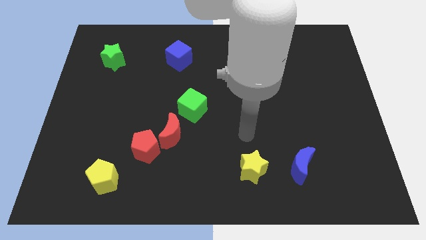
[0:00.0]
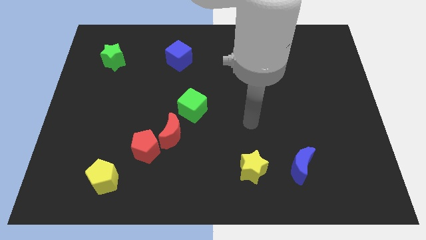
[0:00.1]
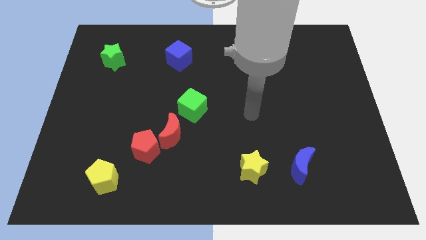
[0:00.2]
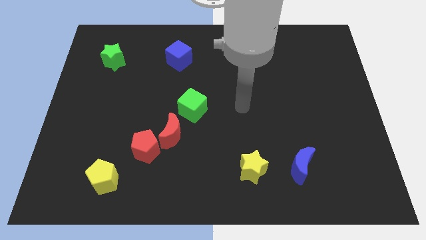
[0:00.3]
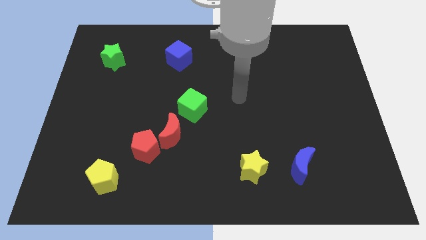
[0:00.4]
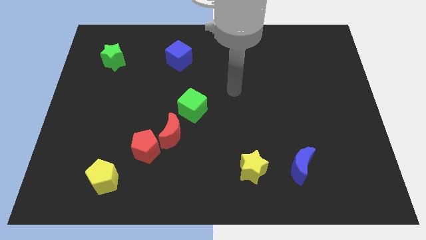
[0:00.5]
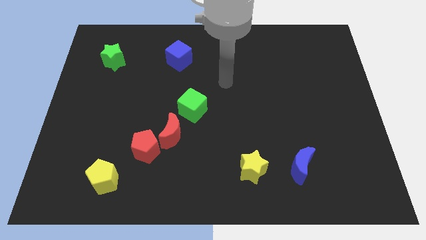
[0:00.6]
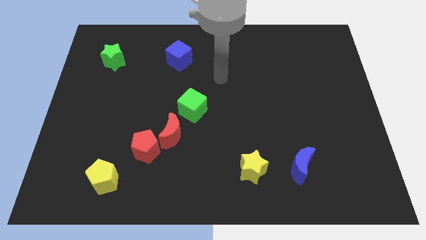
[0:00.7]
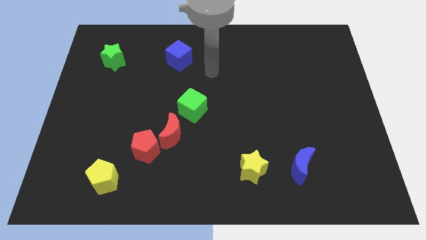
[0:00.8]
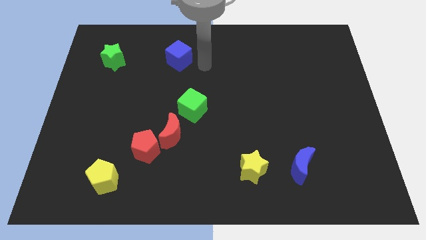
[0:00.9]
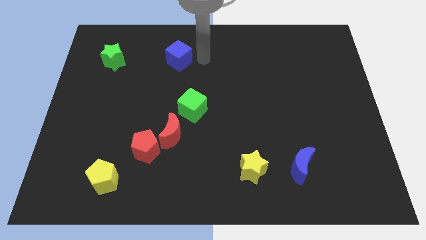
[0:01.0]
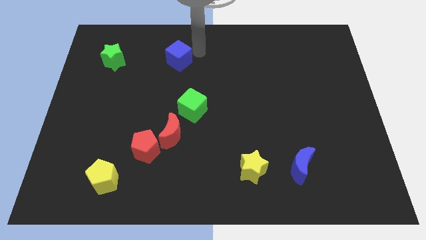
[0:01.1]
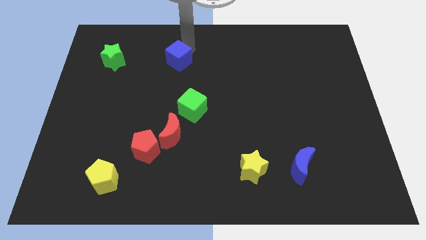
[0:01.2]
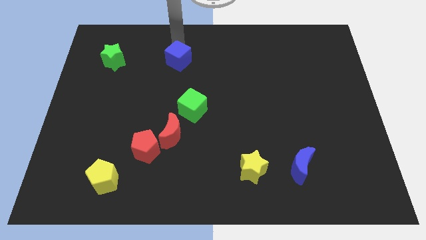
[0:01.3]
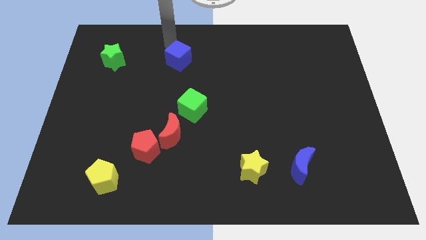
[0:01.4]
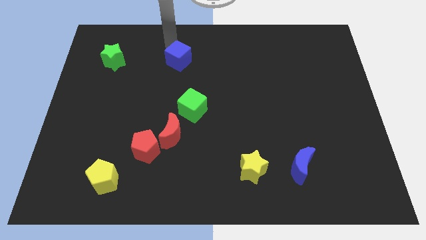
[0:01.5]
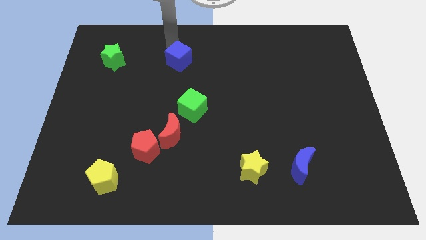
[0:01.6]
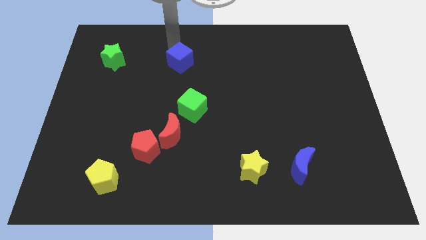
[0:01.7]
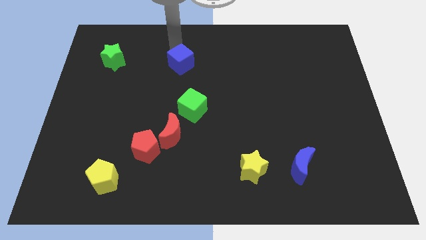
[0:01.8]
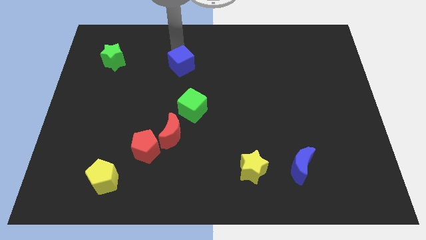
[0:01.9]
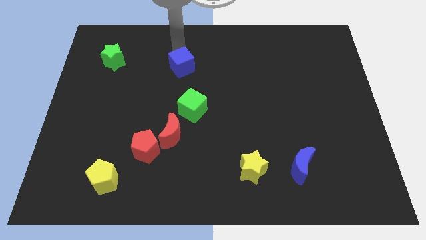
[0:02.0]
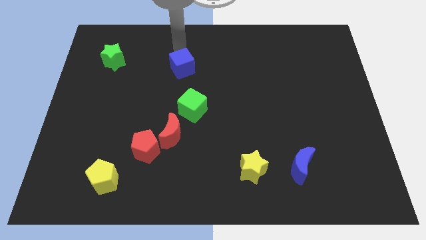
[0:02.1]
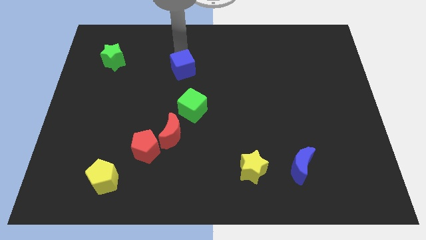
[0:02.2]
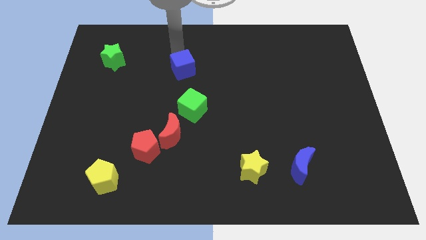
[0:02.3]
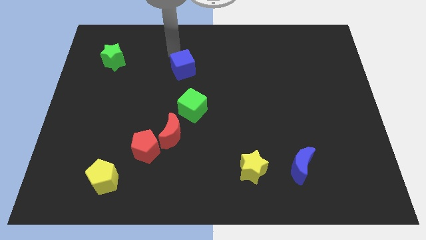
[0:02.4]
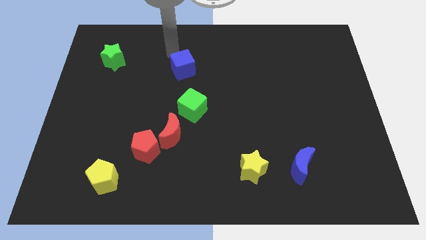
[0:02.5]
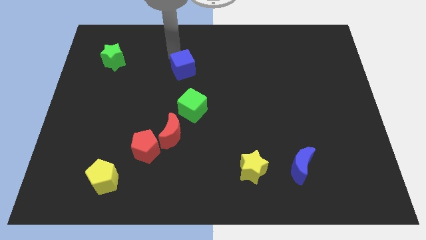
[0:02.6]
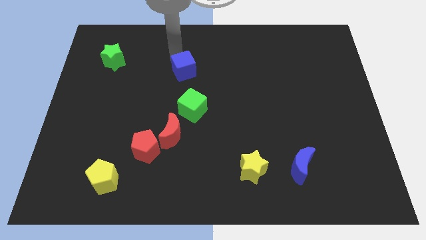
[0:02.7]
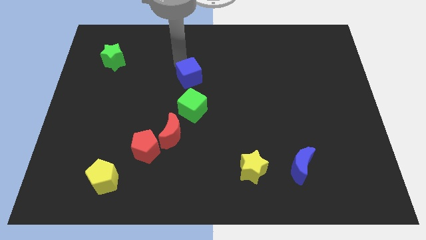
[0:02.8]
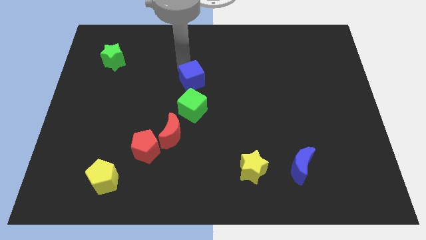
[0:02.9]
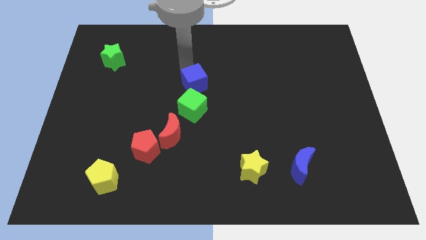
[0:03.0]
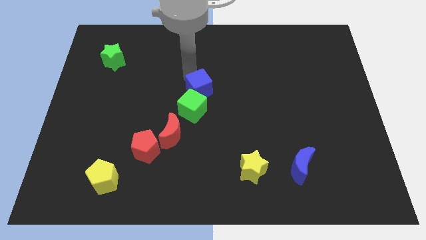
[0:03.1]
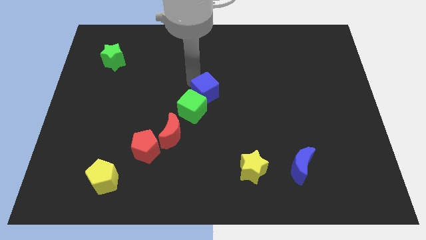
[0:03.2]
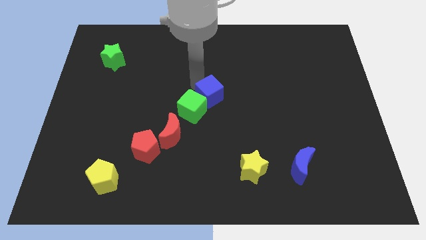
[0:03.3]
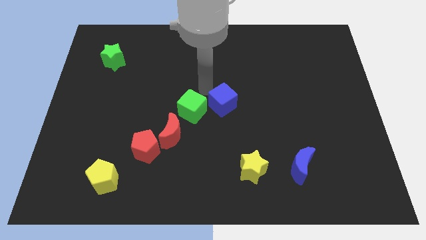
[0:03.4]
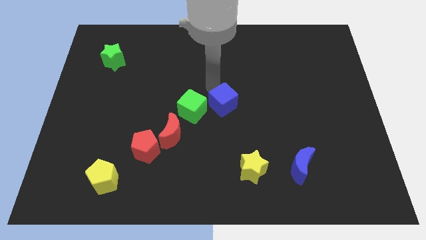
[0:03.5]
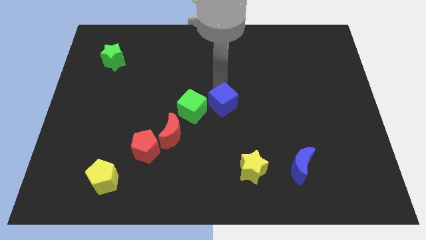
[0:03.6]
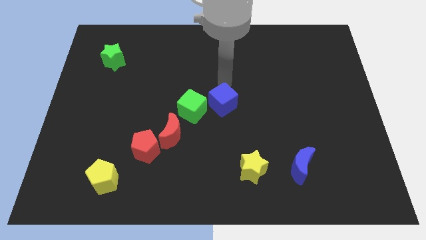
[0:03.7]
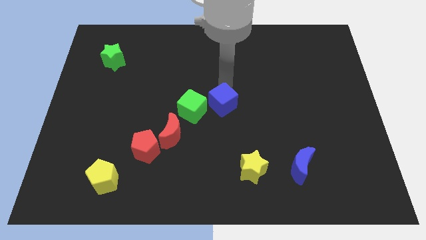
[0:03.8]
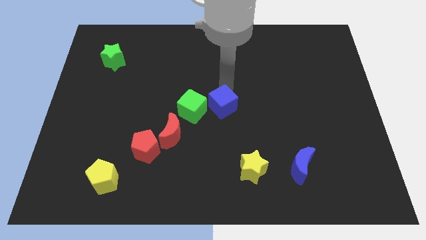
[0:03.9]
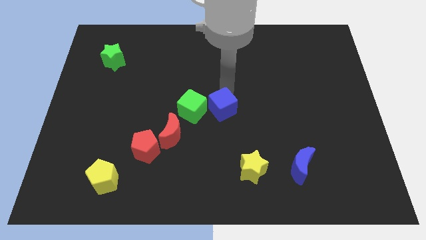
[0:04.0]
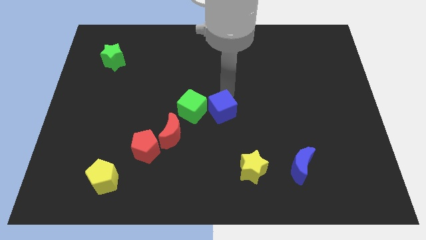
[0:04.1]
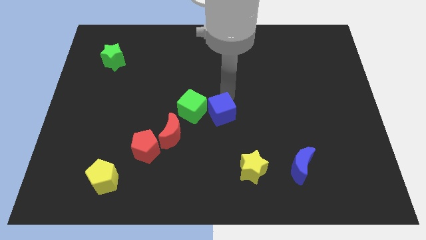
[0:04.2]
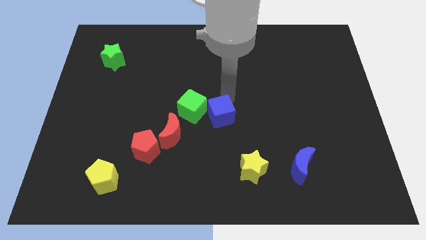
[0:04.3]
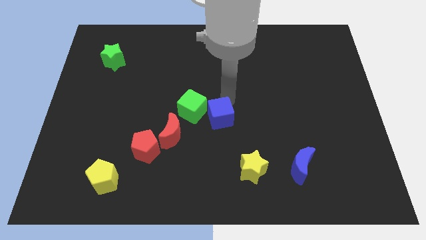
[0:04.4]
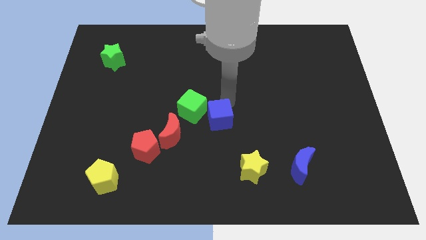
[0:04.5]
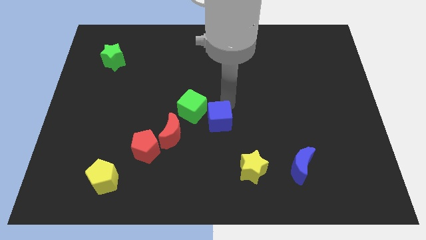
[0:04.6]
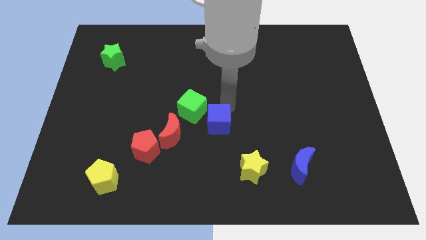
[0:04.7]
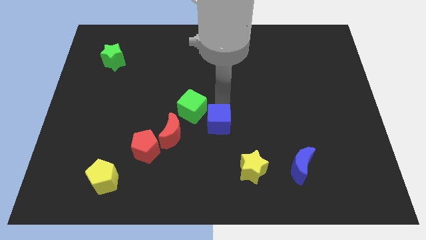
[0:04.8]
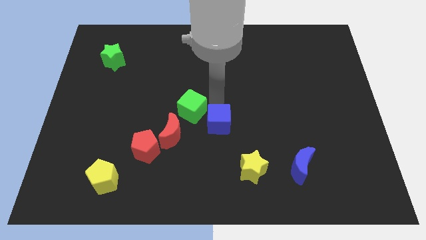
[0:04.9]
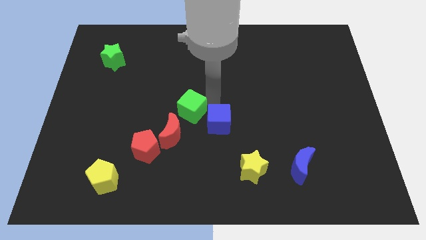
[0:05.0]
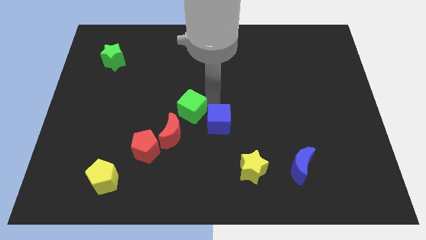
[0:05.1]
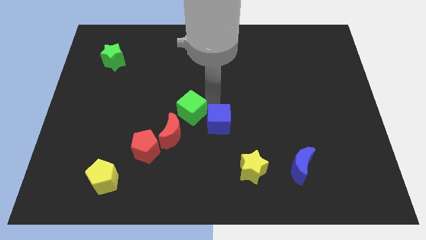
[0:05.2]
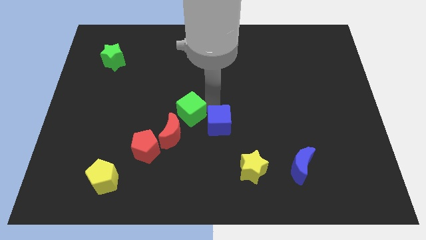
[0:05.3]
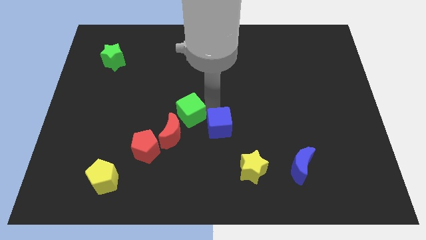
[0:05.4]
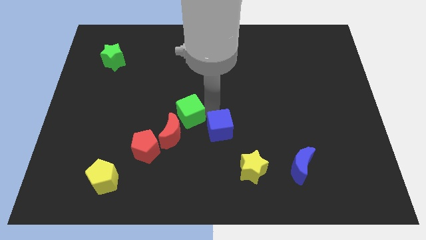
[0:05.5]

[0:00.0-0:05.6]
move the blue cube to the top left of the yellow star

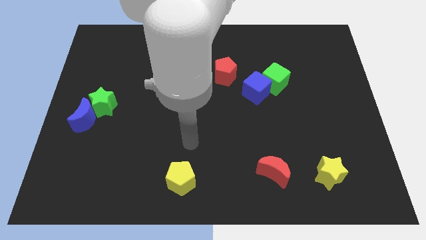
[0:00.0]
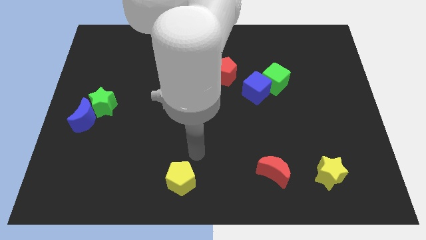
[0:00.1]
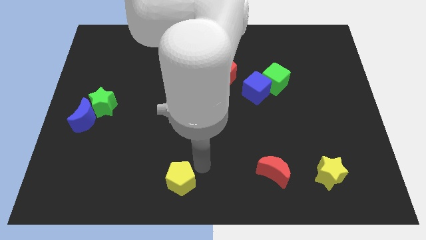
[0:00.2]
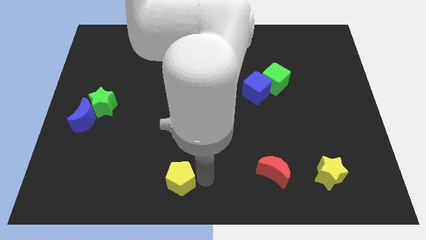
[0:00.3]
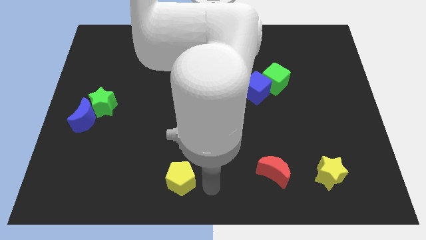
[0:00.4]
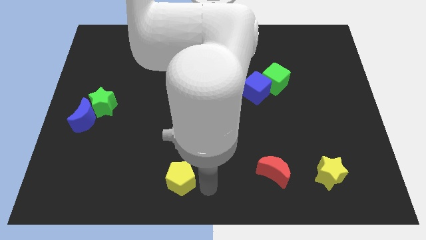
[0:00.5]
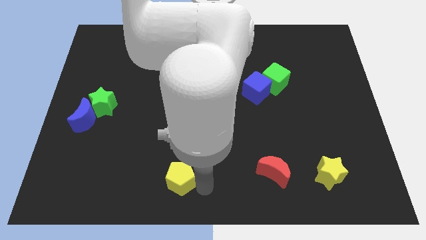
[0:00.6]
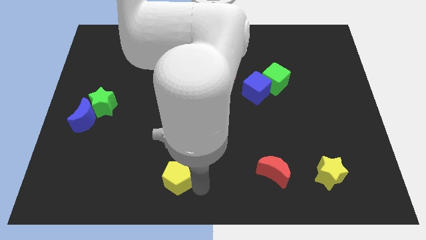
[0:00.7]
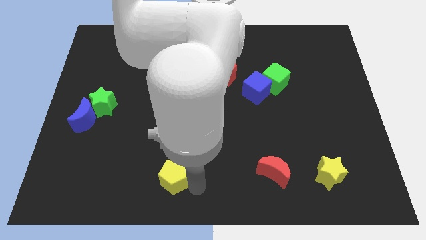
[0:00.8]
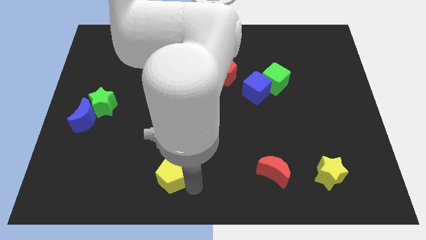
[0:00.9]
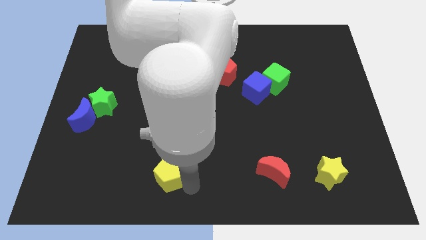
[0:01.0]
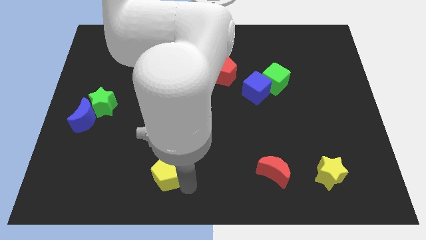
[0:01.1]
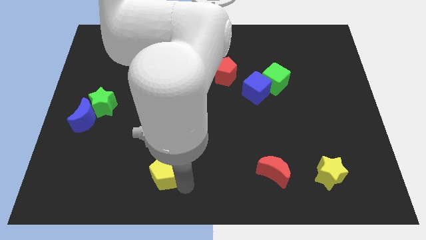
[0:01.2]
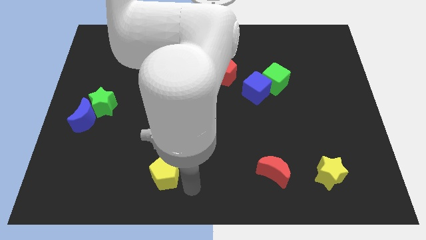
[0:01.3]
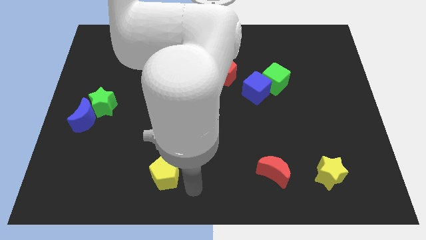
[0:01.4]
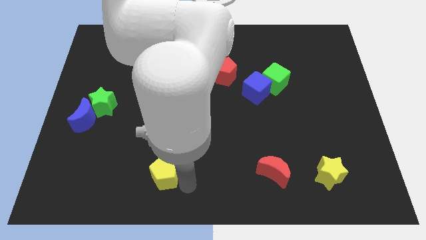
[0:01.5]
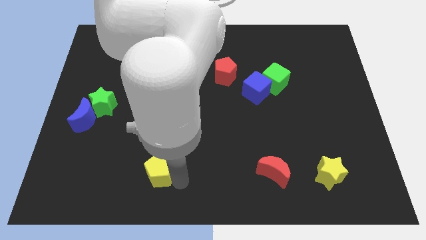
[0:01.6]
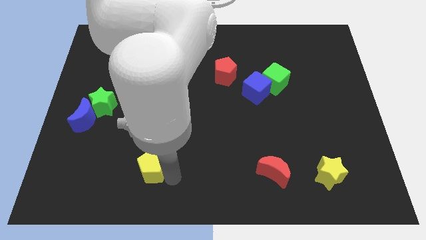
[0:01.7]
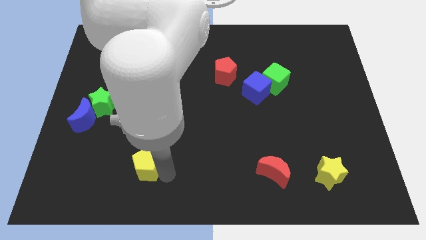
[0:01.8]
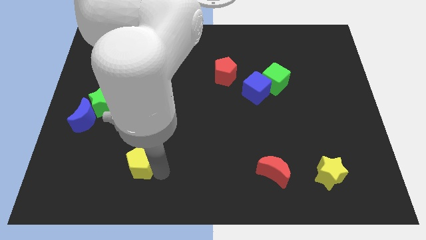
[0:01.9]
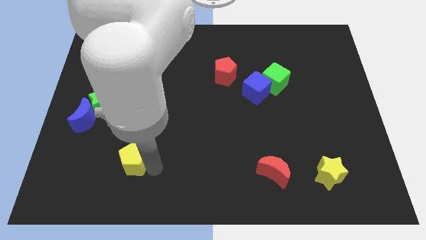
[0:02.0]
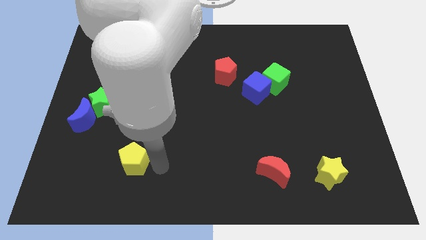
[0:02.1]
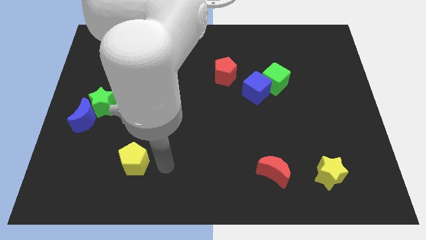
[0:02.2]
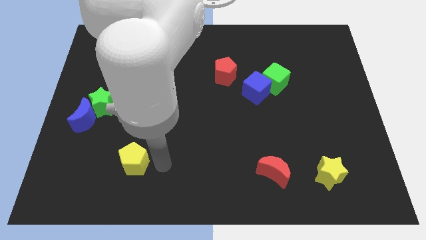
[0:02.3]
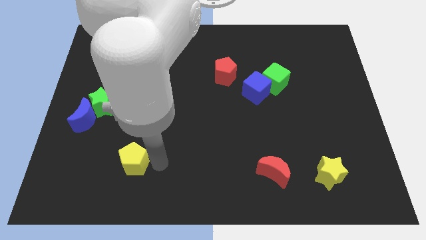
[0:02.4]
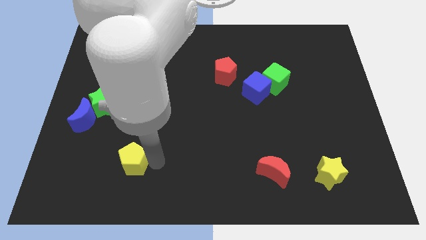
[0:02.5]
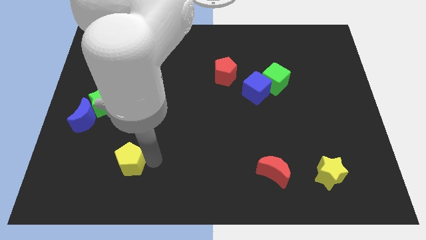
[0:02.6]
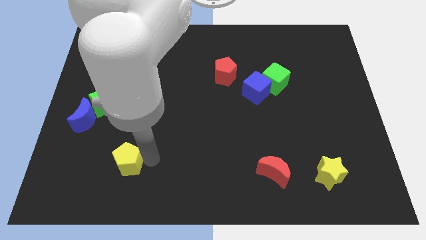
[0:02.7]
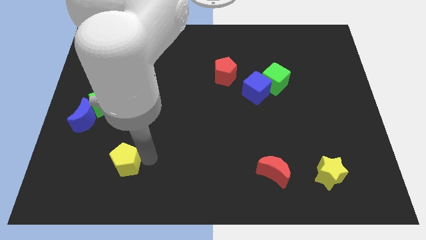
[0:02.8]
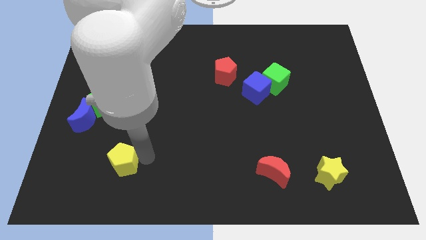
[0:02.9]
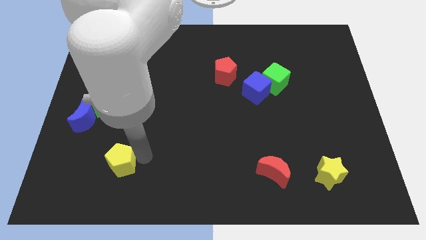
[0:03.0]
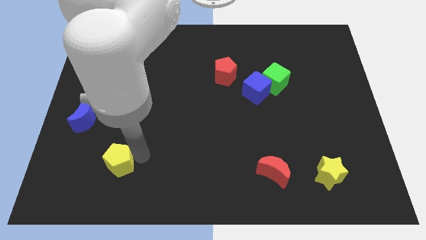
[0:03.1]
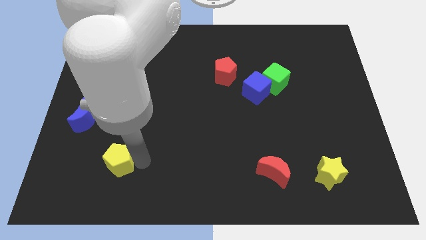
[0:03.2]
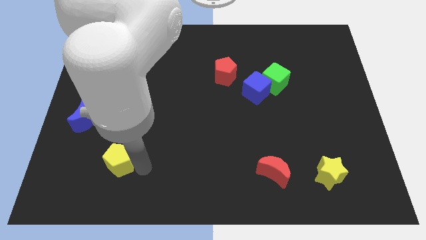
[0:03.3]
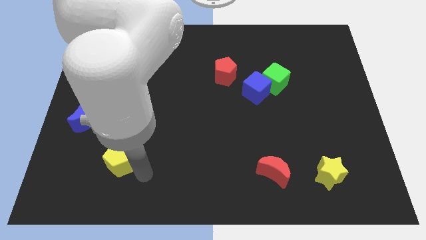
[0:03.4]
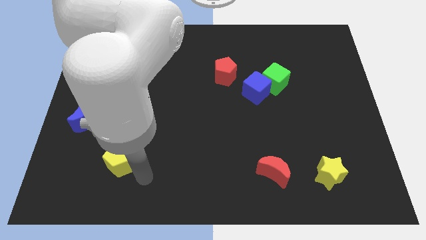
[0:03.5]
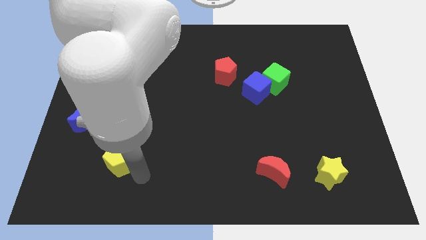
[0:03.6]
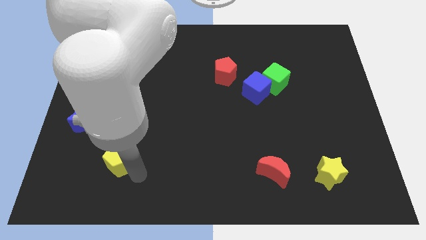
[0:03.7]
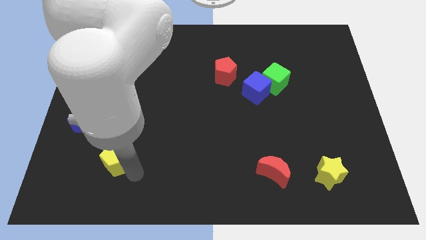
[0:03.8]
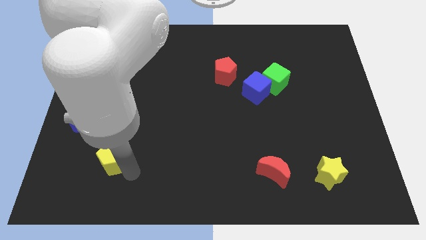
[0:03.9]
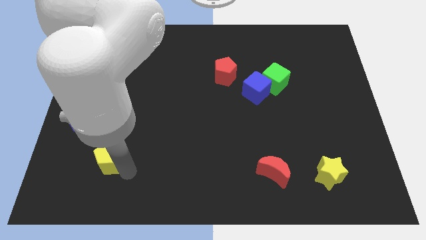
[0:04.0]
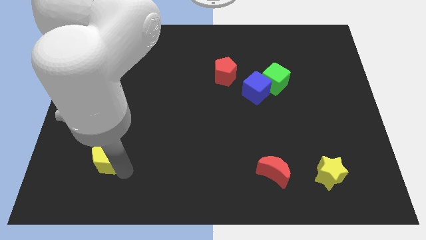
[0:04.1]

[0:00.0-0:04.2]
slide the yellow pentagon to the bottom side of the green star
